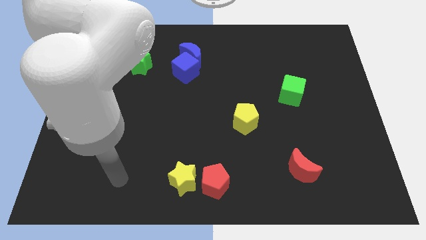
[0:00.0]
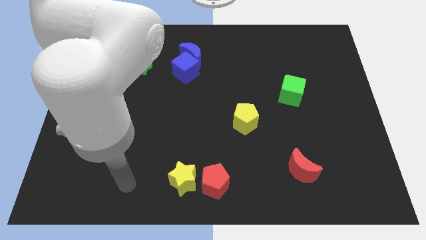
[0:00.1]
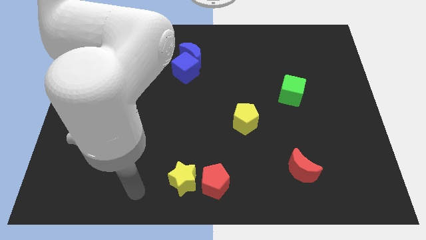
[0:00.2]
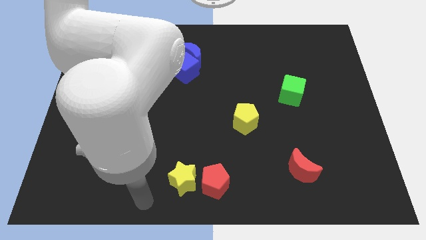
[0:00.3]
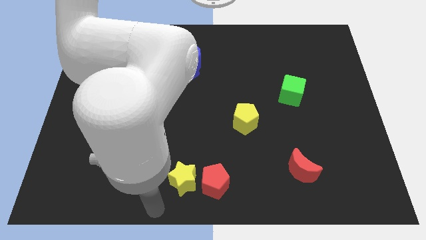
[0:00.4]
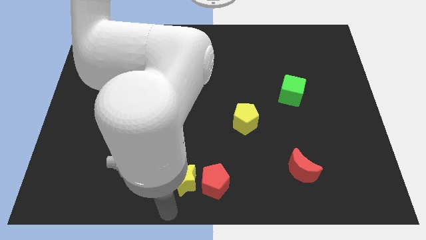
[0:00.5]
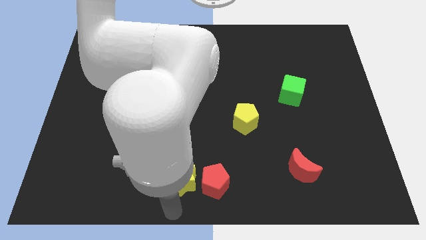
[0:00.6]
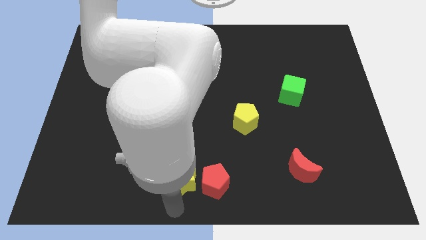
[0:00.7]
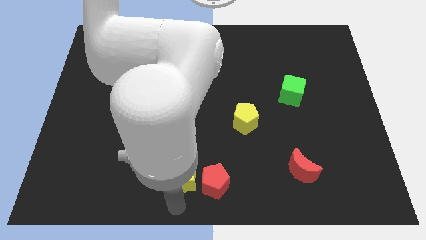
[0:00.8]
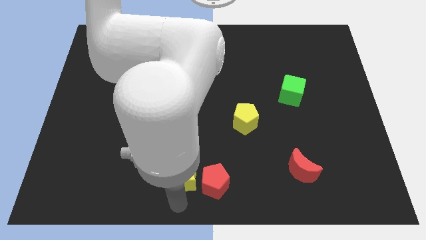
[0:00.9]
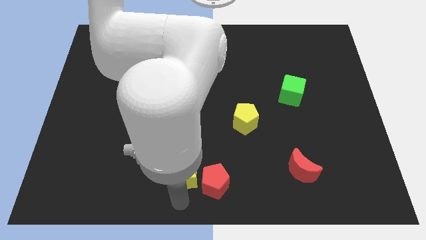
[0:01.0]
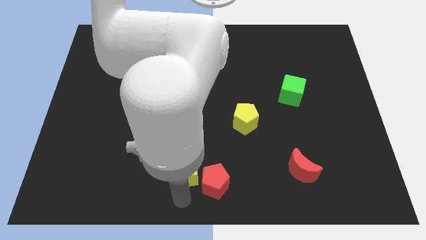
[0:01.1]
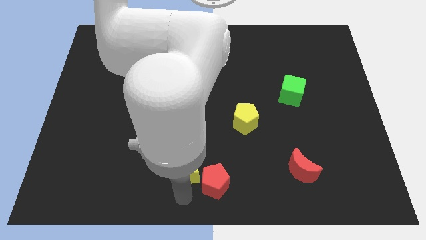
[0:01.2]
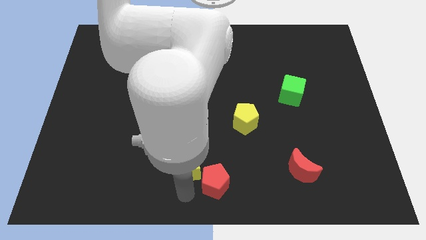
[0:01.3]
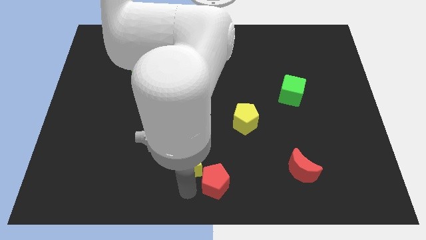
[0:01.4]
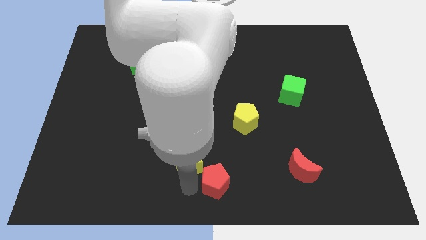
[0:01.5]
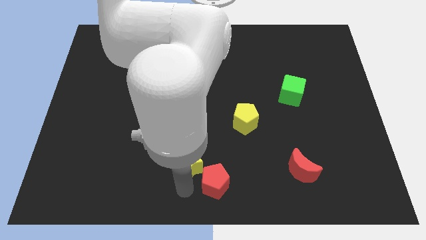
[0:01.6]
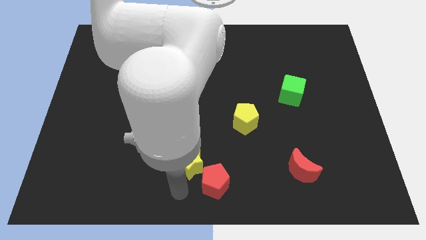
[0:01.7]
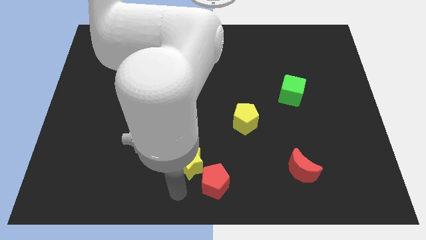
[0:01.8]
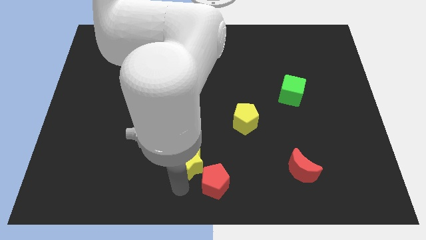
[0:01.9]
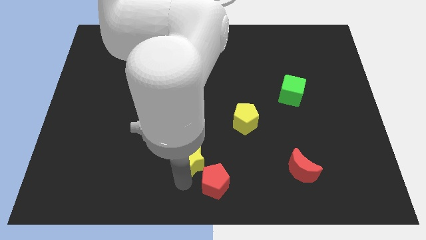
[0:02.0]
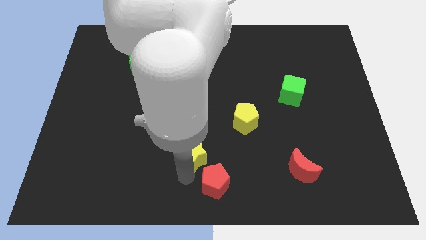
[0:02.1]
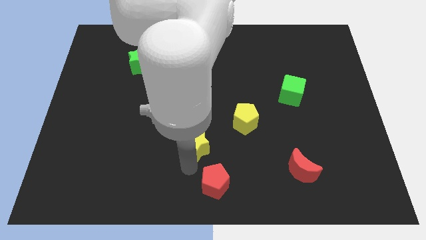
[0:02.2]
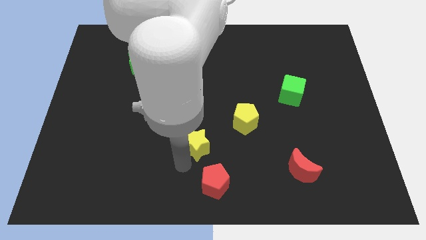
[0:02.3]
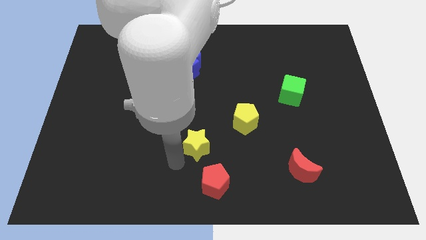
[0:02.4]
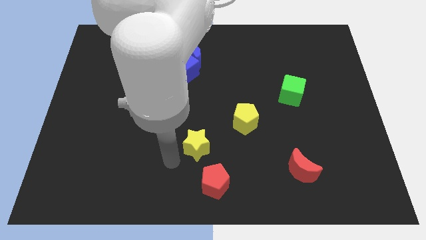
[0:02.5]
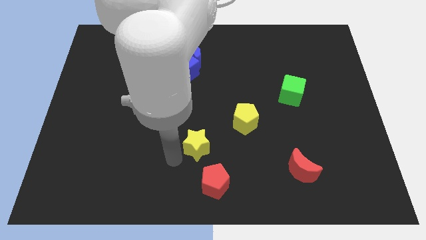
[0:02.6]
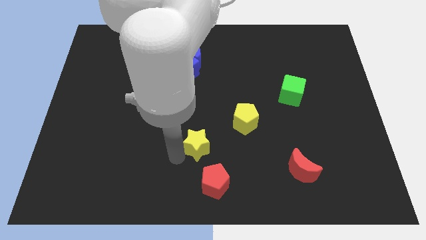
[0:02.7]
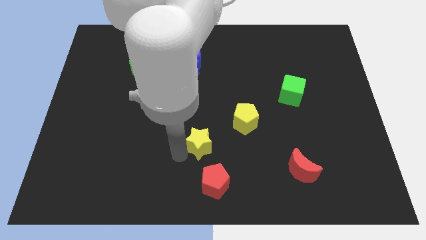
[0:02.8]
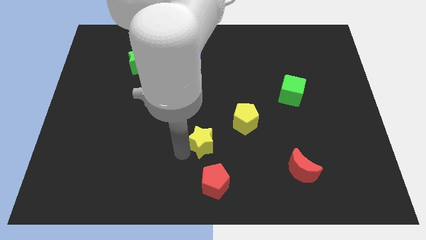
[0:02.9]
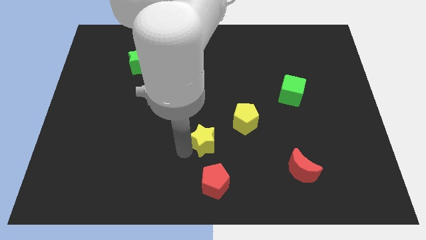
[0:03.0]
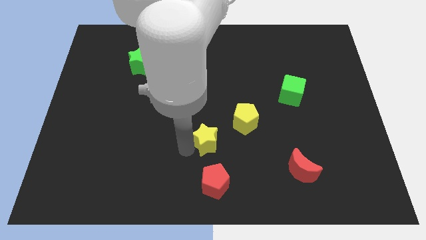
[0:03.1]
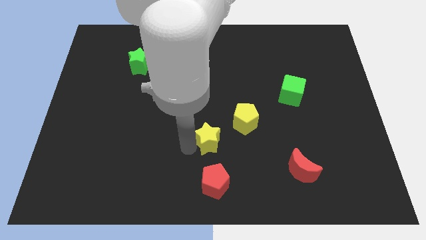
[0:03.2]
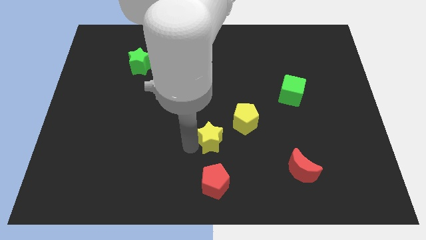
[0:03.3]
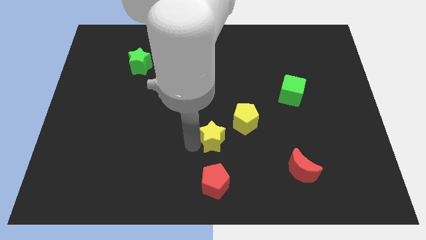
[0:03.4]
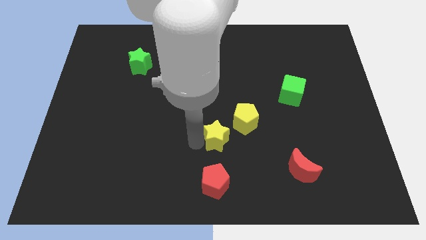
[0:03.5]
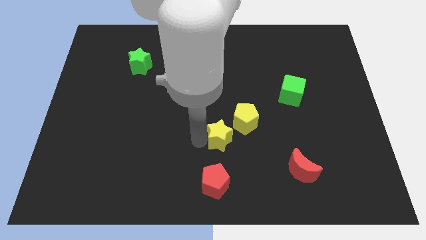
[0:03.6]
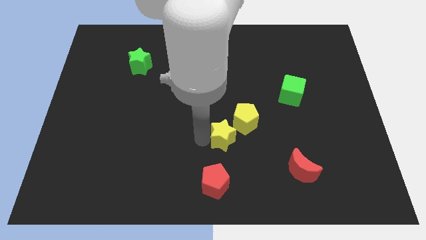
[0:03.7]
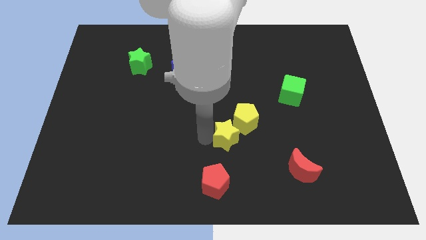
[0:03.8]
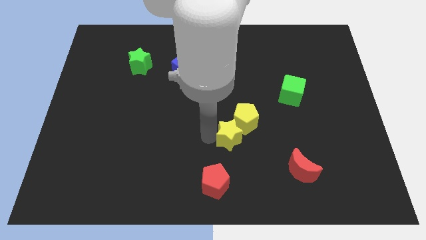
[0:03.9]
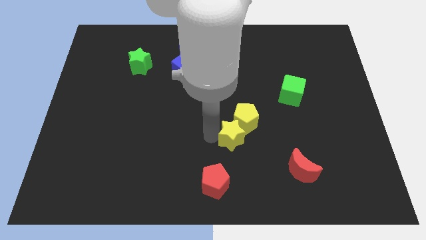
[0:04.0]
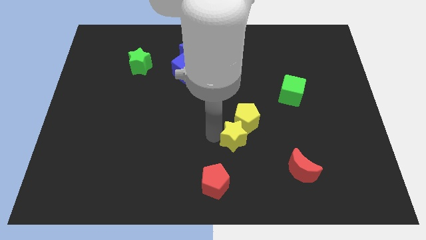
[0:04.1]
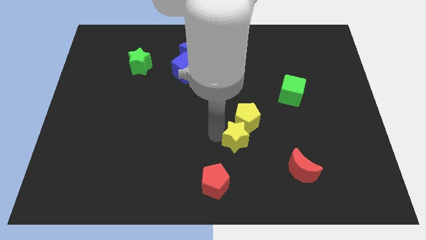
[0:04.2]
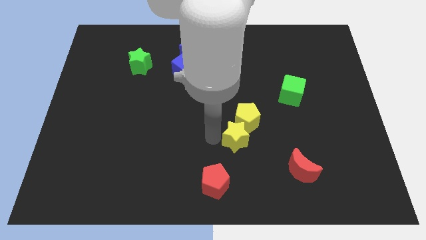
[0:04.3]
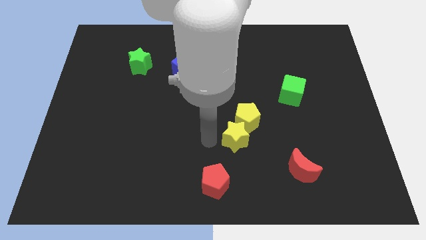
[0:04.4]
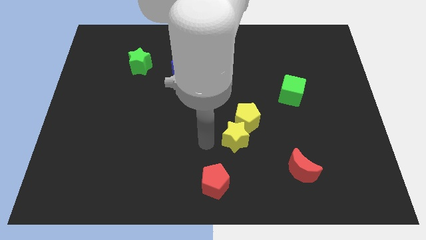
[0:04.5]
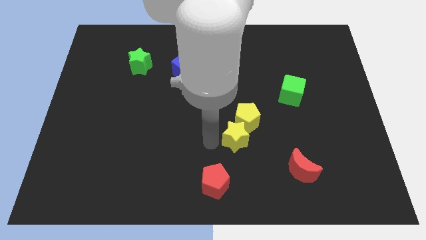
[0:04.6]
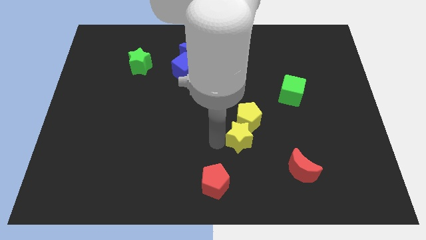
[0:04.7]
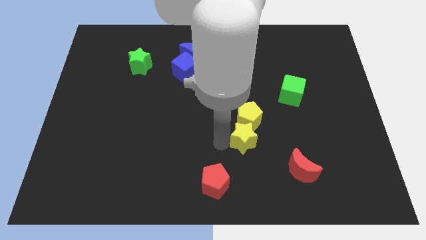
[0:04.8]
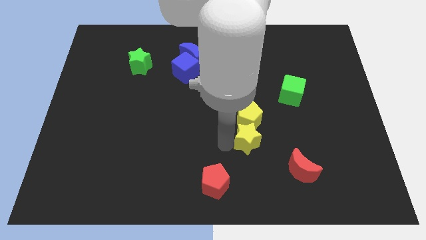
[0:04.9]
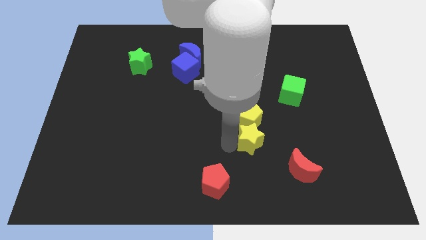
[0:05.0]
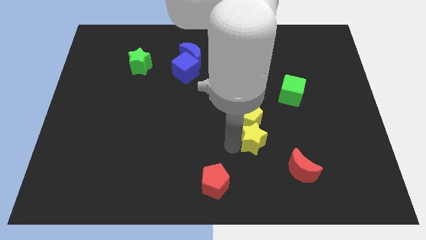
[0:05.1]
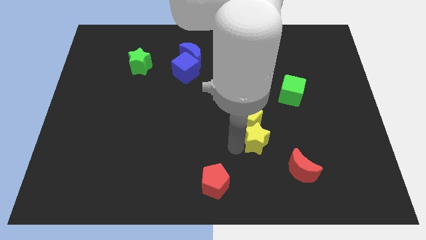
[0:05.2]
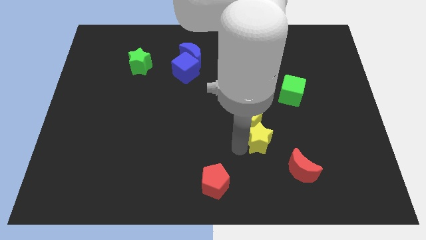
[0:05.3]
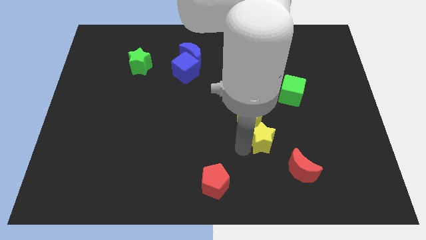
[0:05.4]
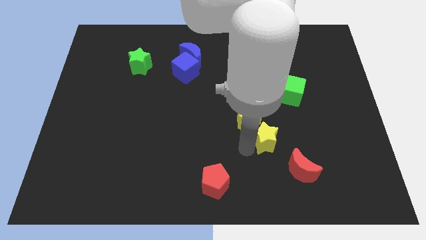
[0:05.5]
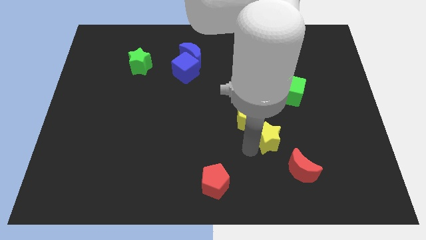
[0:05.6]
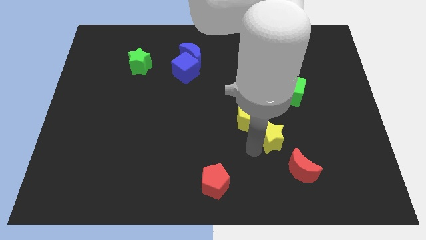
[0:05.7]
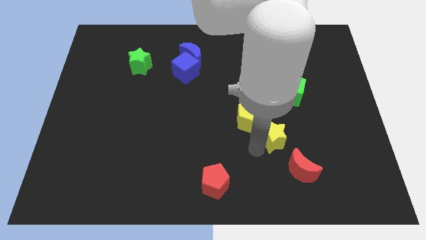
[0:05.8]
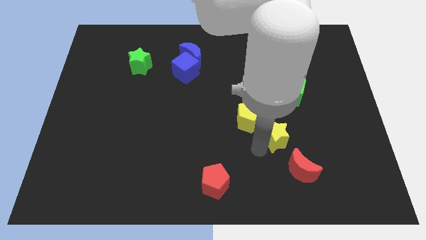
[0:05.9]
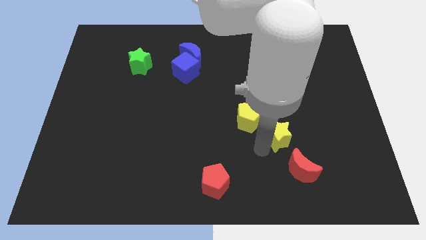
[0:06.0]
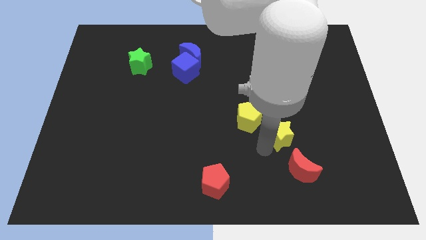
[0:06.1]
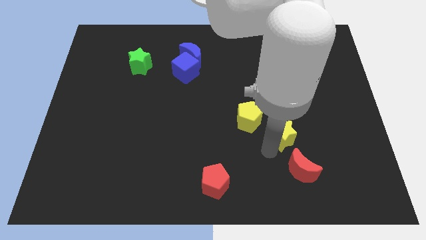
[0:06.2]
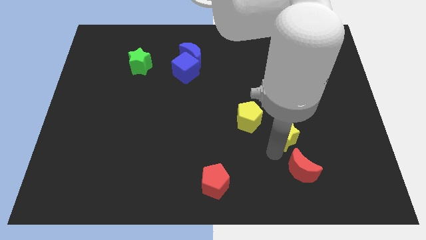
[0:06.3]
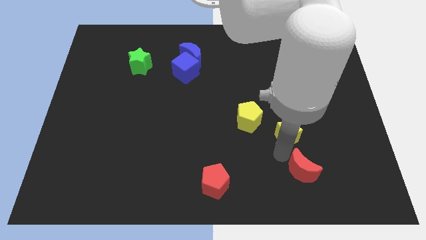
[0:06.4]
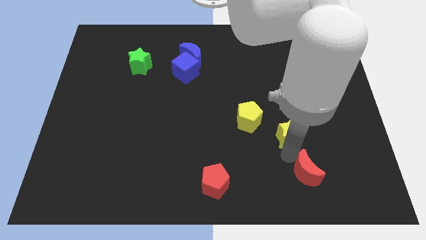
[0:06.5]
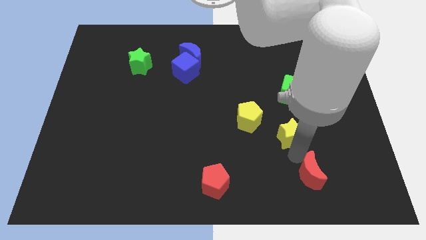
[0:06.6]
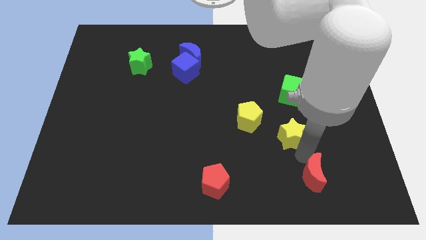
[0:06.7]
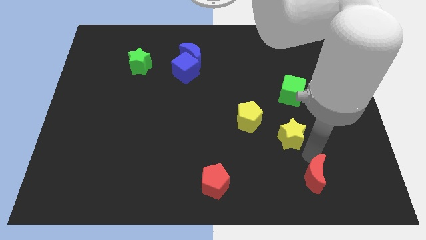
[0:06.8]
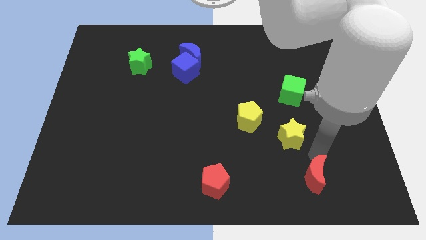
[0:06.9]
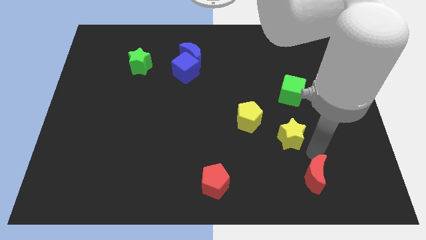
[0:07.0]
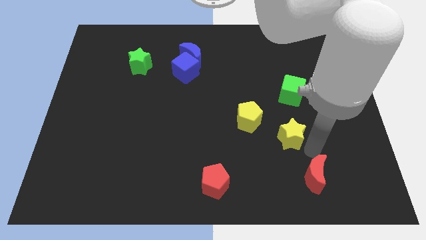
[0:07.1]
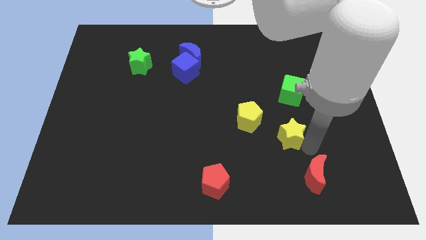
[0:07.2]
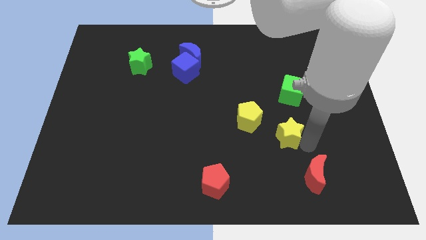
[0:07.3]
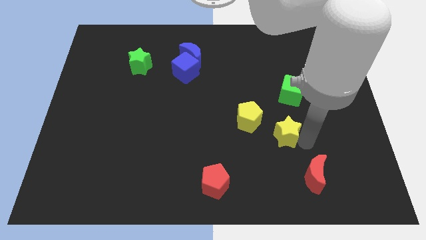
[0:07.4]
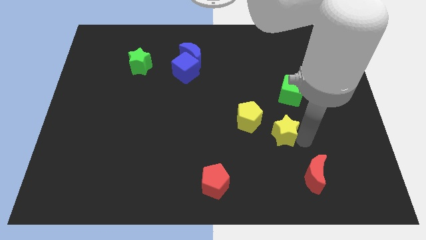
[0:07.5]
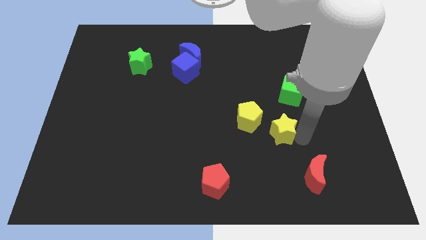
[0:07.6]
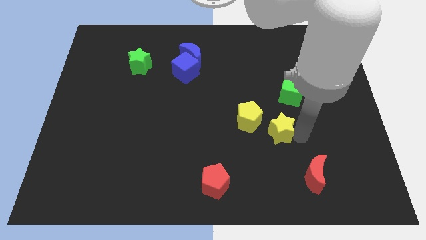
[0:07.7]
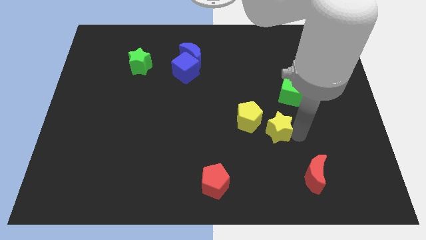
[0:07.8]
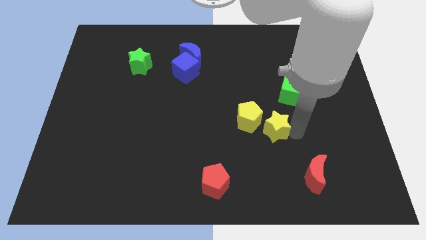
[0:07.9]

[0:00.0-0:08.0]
slide the yellow star to the bottom left of the green cube
